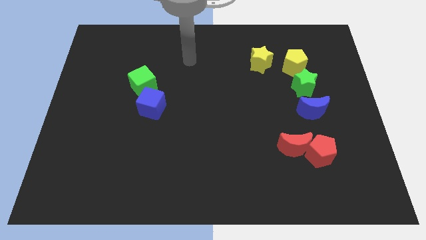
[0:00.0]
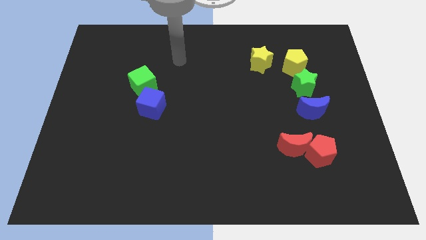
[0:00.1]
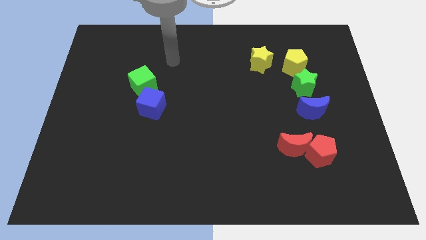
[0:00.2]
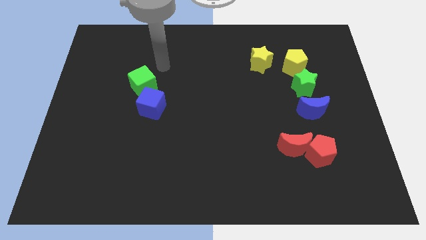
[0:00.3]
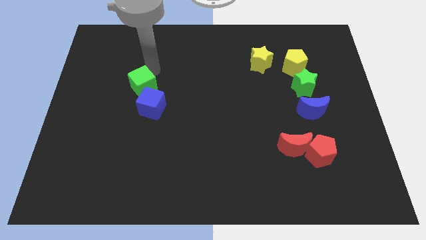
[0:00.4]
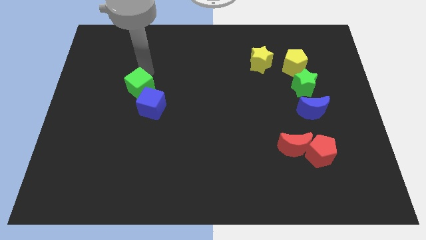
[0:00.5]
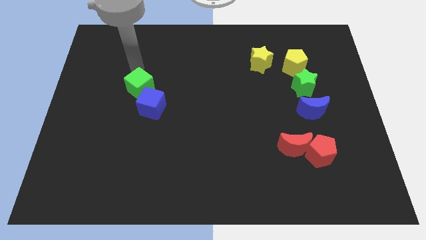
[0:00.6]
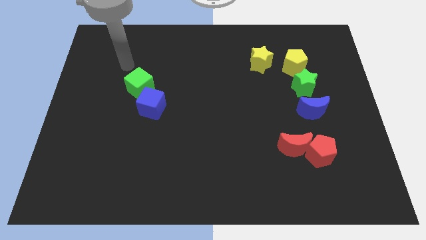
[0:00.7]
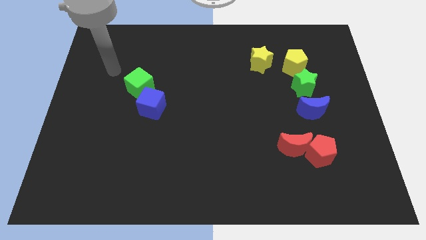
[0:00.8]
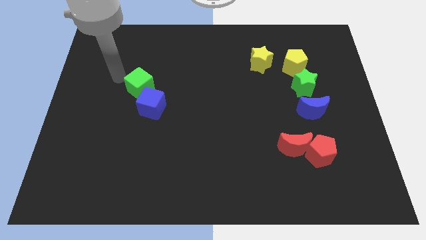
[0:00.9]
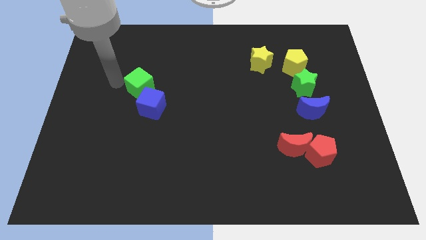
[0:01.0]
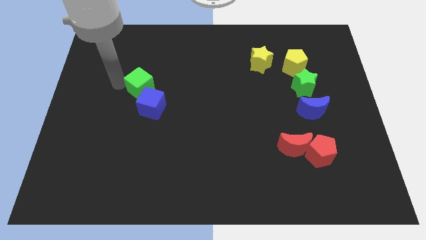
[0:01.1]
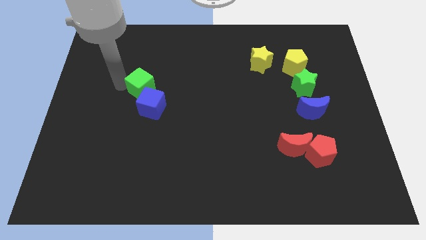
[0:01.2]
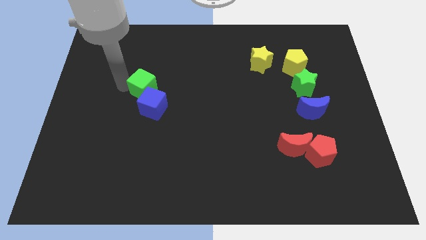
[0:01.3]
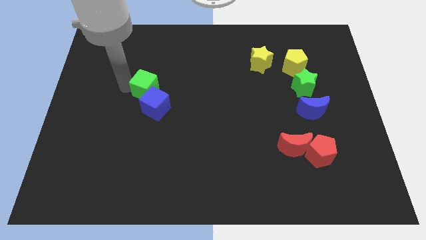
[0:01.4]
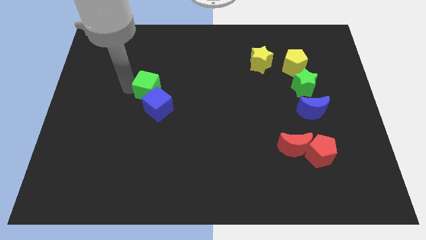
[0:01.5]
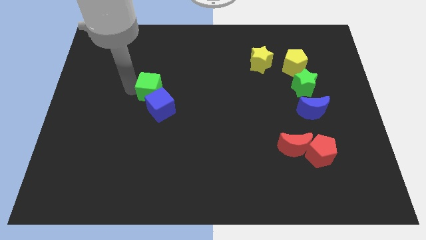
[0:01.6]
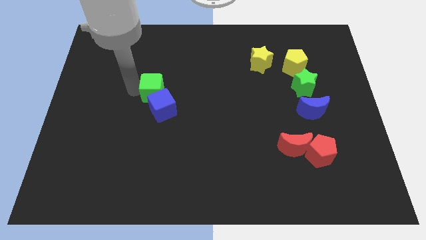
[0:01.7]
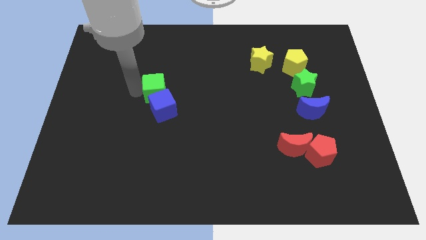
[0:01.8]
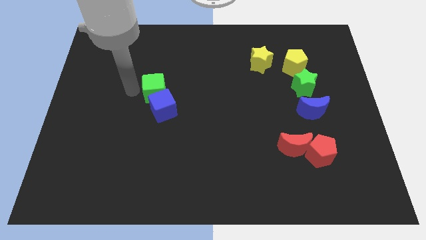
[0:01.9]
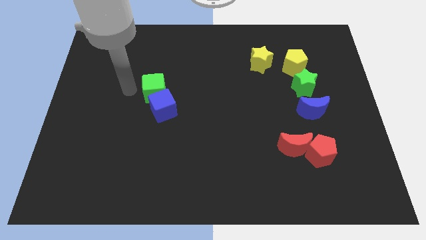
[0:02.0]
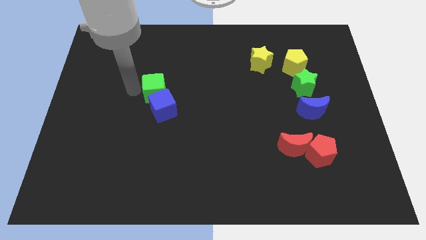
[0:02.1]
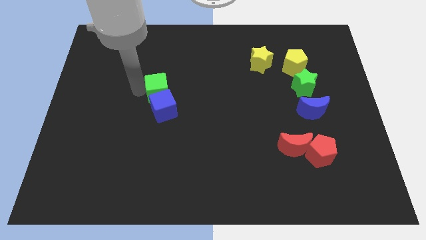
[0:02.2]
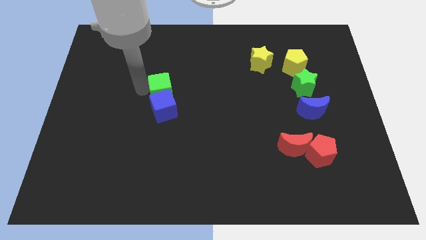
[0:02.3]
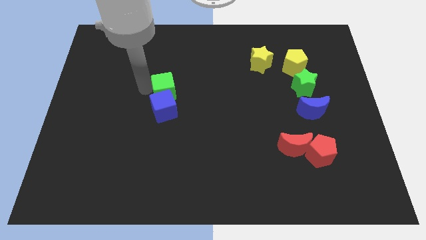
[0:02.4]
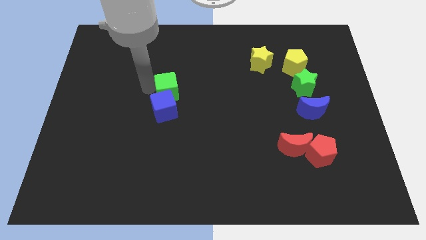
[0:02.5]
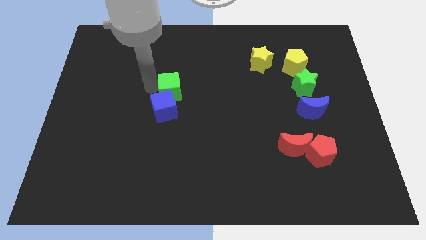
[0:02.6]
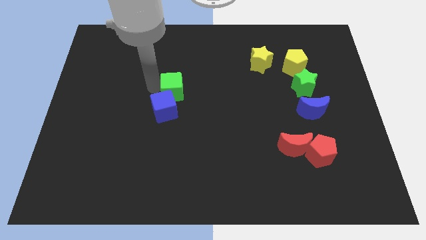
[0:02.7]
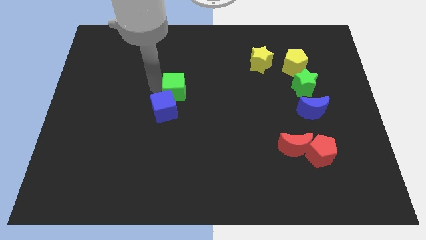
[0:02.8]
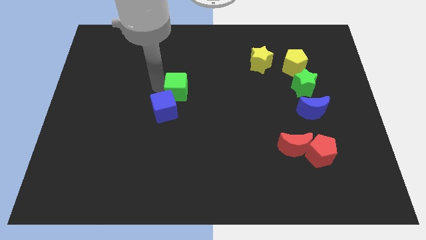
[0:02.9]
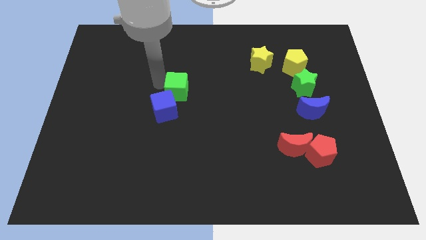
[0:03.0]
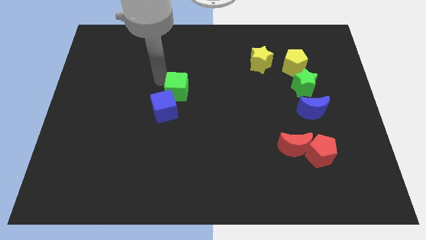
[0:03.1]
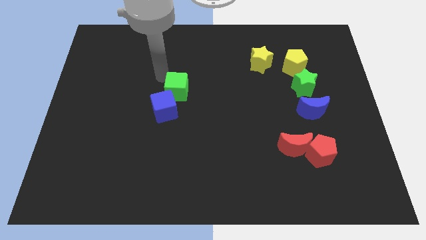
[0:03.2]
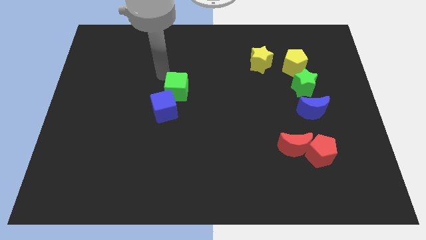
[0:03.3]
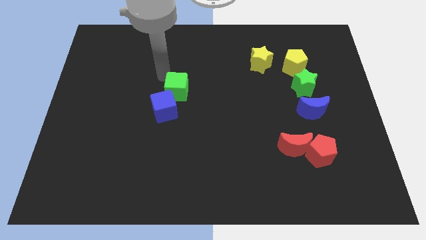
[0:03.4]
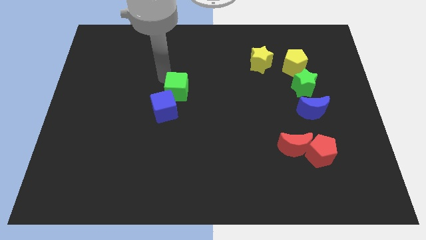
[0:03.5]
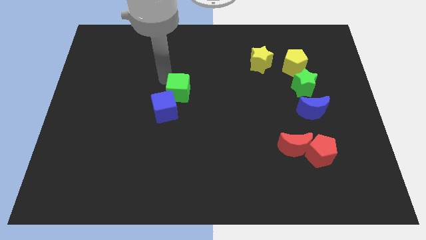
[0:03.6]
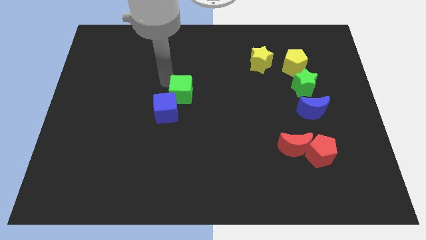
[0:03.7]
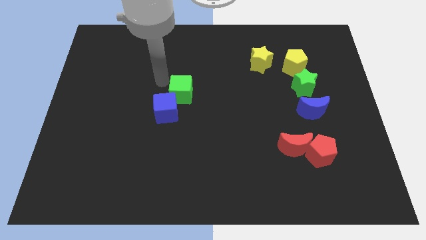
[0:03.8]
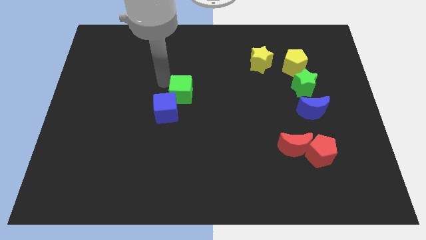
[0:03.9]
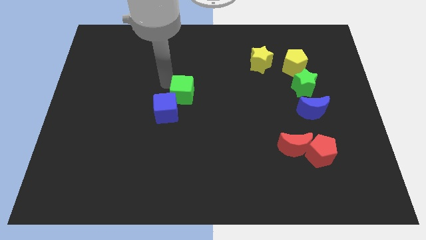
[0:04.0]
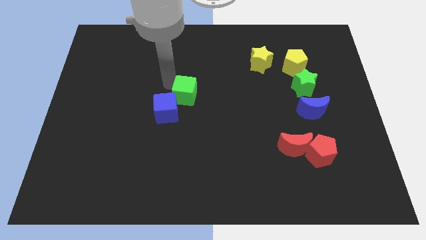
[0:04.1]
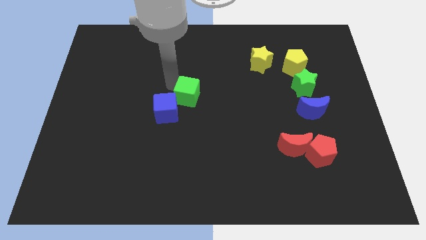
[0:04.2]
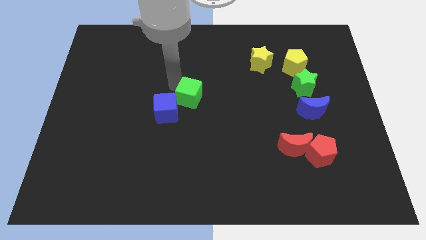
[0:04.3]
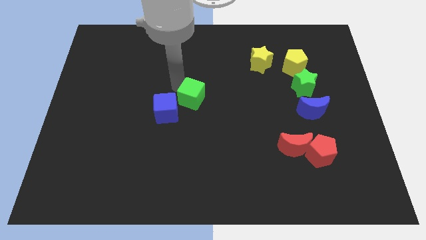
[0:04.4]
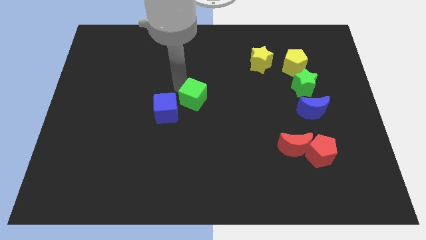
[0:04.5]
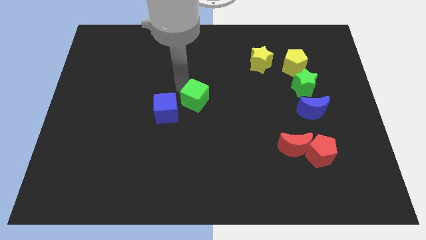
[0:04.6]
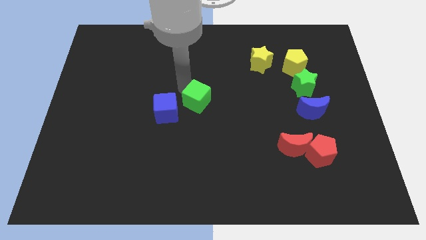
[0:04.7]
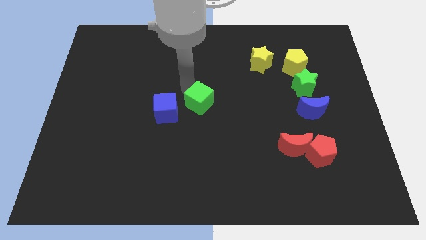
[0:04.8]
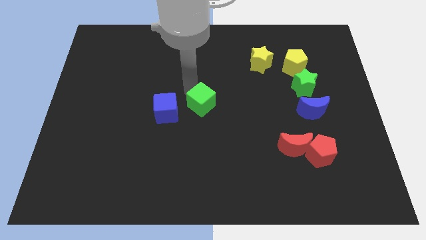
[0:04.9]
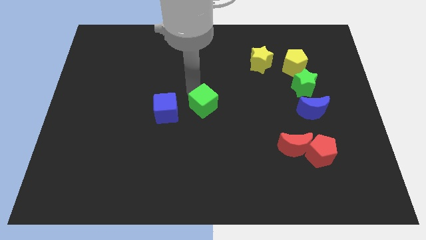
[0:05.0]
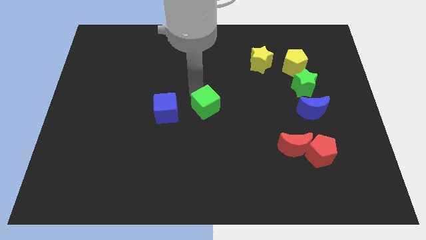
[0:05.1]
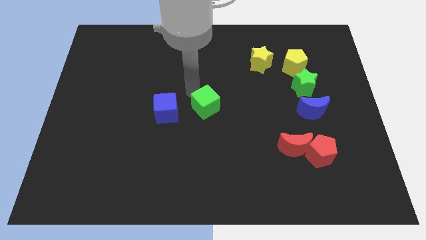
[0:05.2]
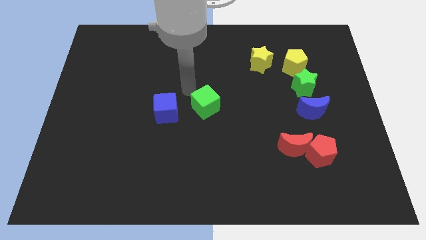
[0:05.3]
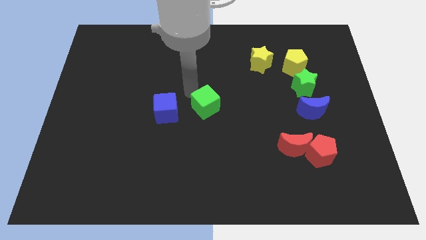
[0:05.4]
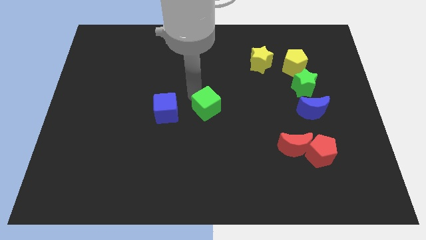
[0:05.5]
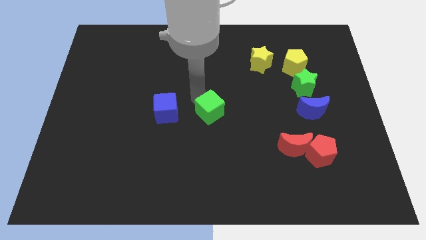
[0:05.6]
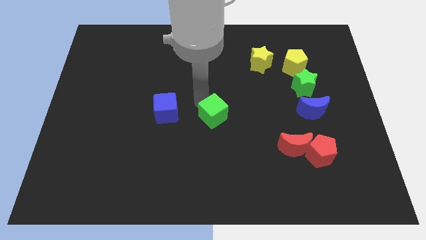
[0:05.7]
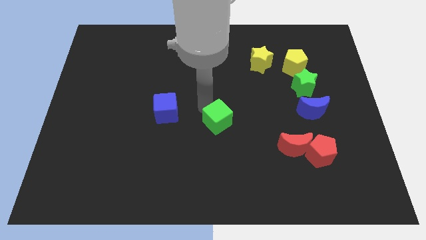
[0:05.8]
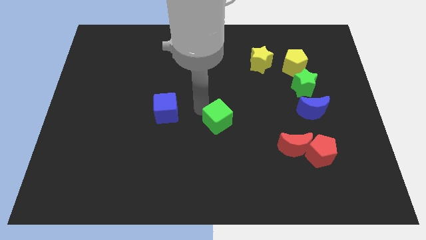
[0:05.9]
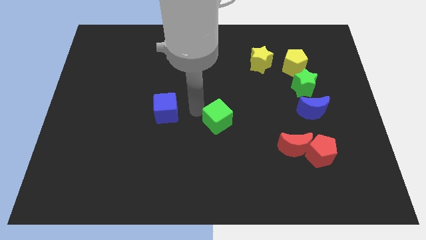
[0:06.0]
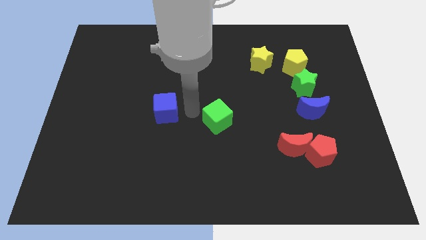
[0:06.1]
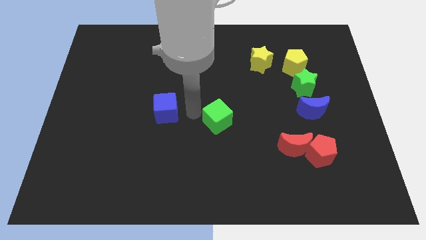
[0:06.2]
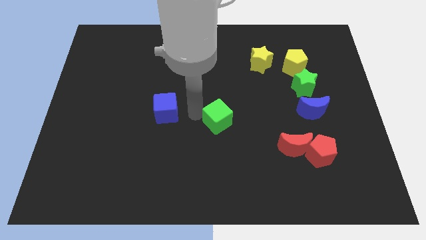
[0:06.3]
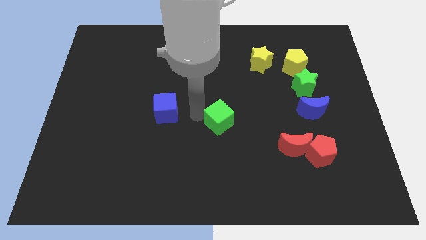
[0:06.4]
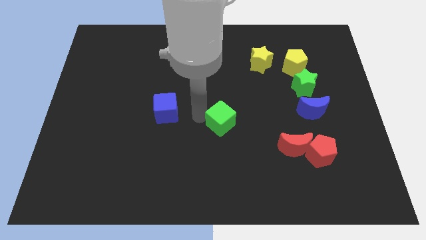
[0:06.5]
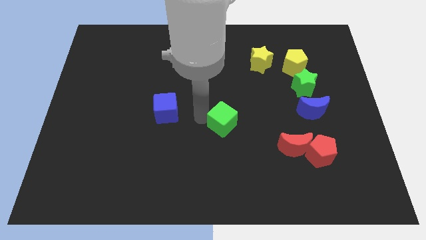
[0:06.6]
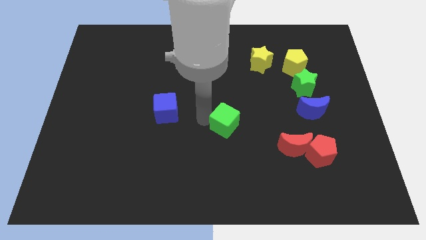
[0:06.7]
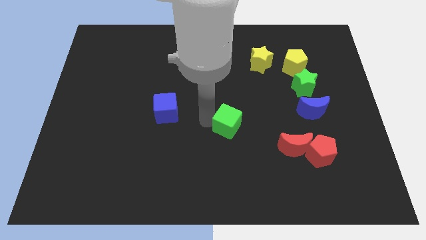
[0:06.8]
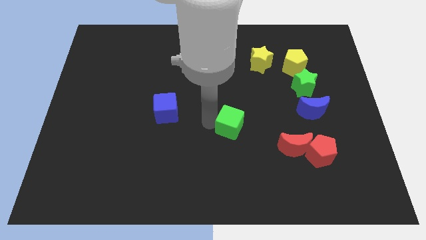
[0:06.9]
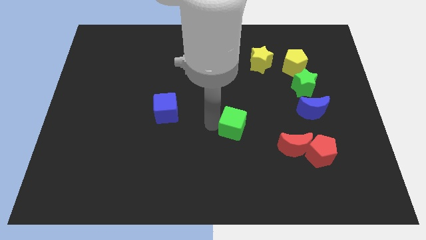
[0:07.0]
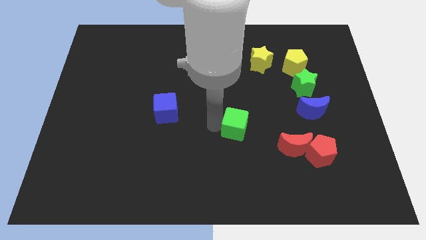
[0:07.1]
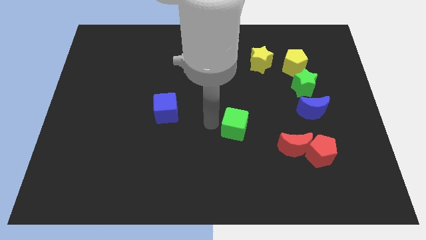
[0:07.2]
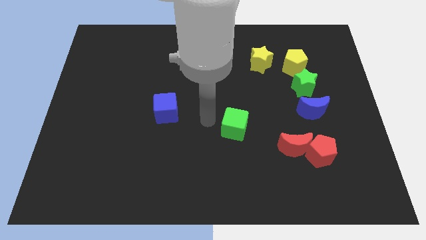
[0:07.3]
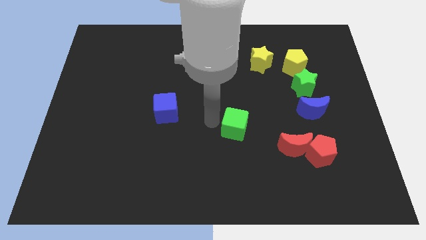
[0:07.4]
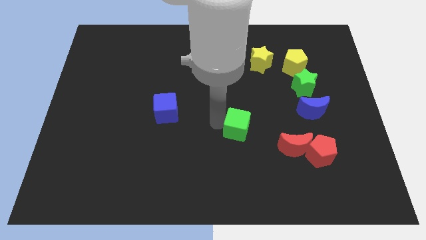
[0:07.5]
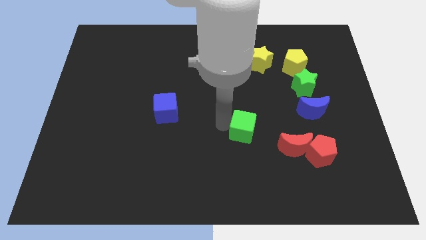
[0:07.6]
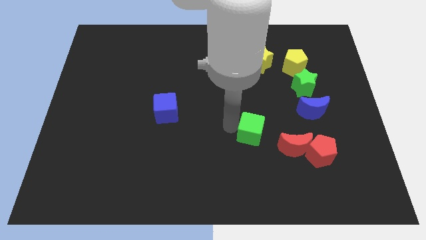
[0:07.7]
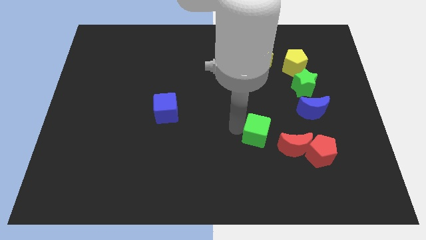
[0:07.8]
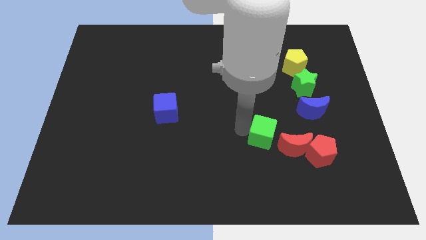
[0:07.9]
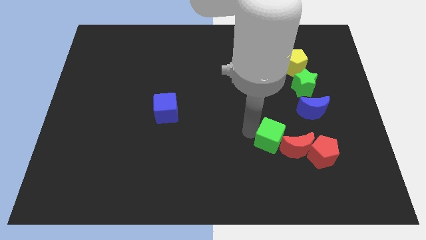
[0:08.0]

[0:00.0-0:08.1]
push the green cube towards the red moon
